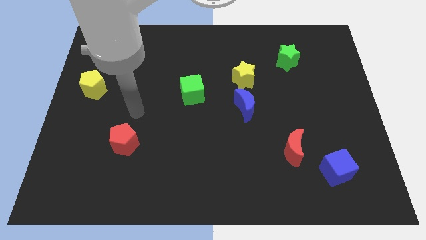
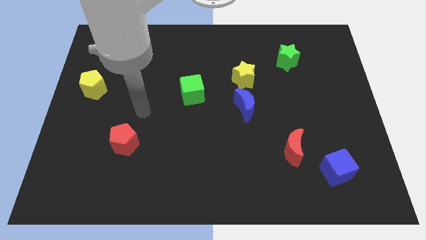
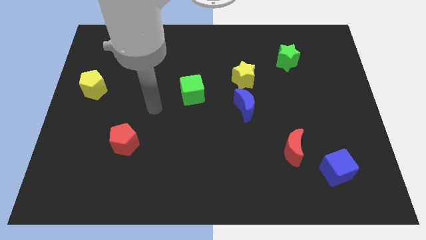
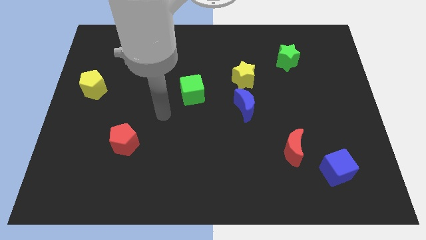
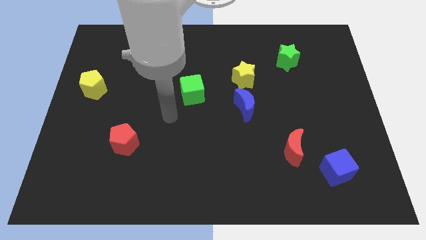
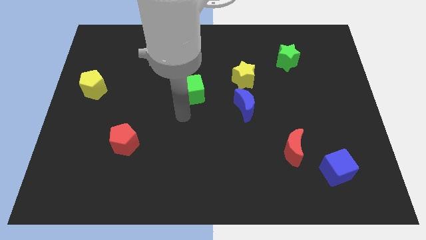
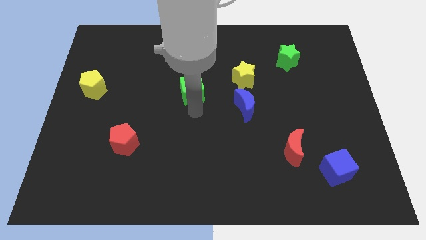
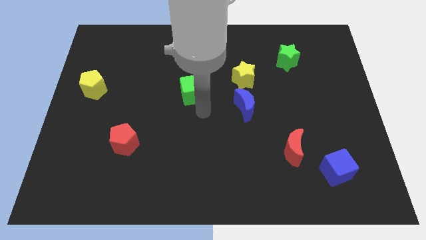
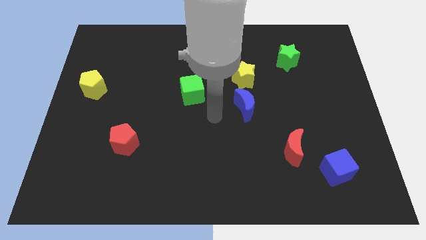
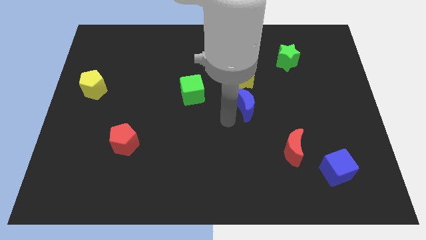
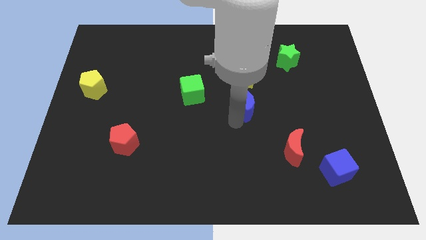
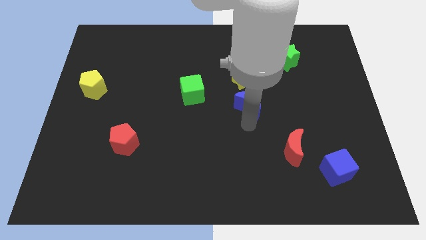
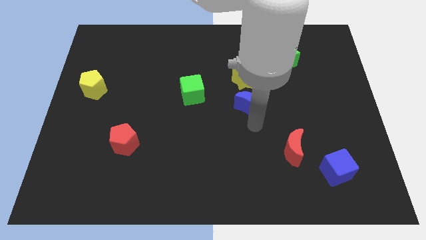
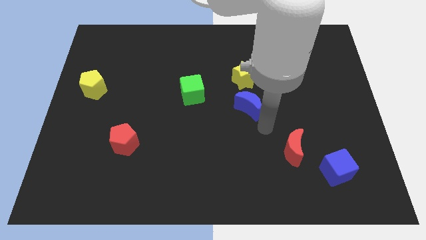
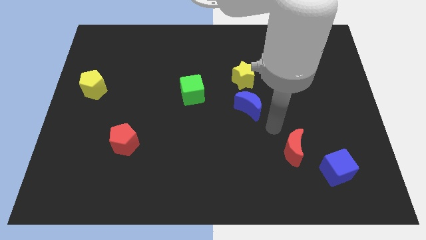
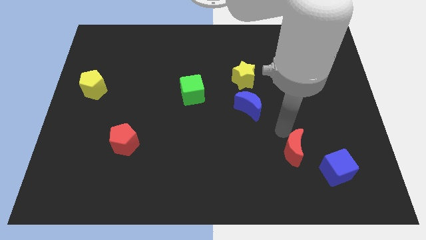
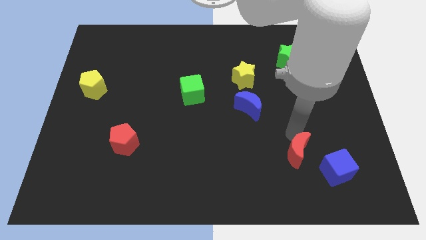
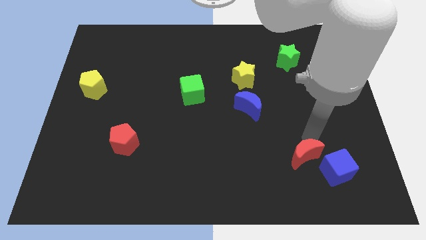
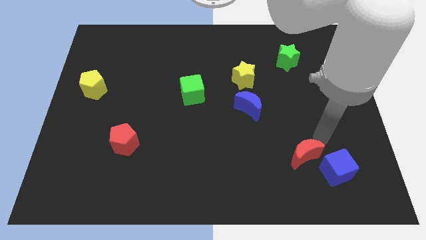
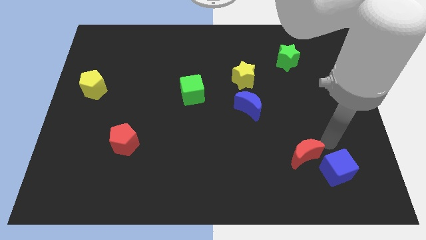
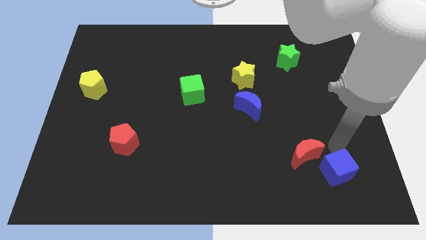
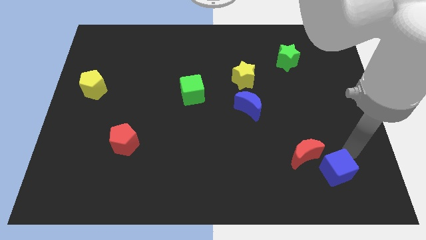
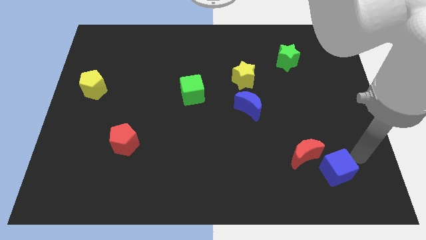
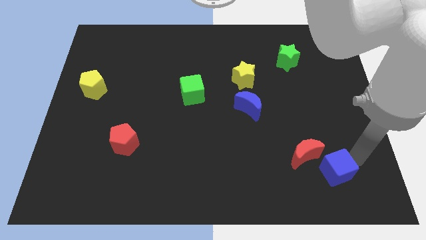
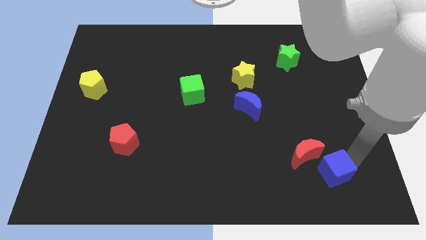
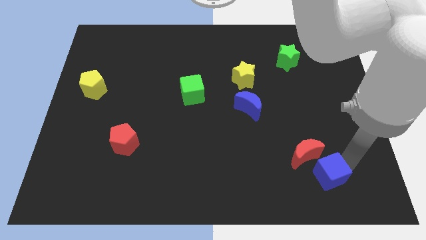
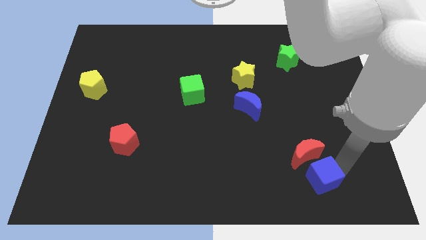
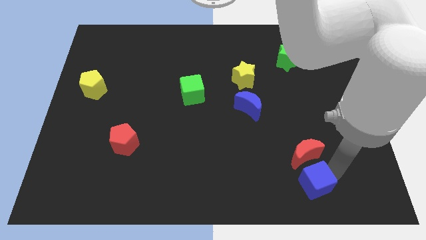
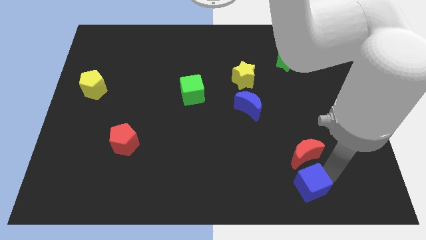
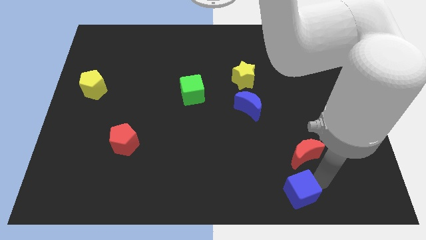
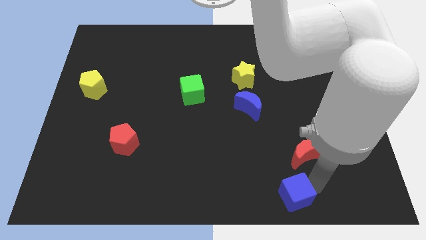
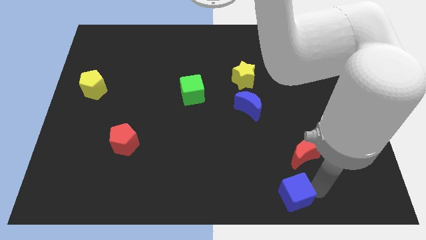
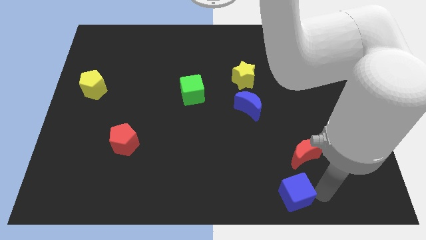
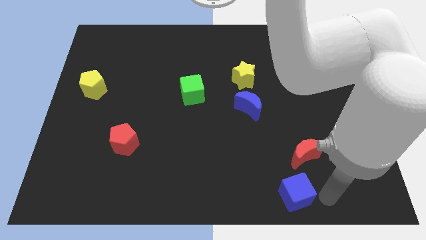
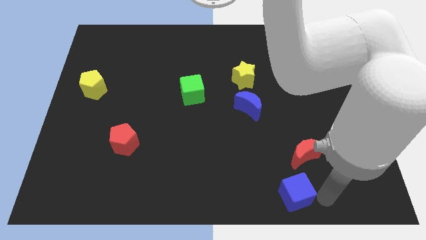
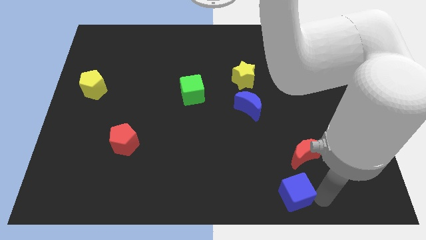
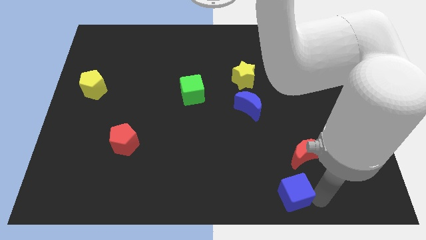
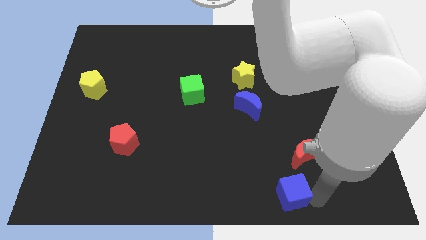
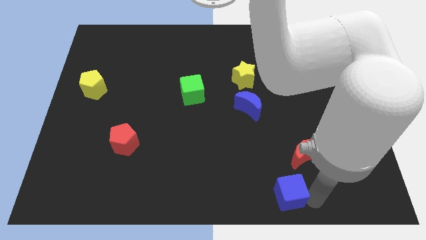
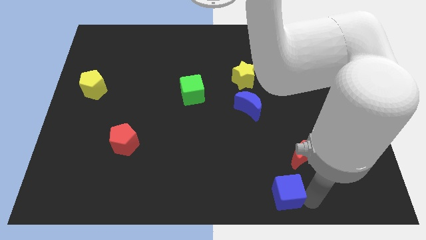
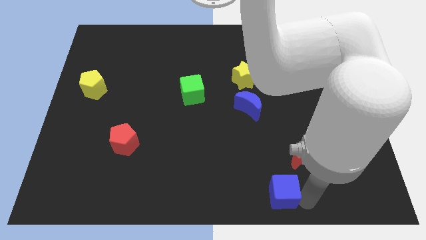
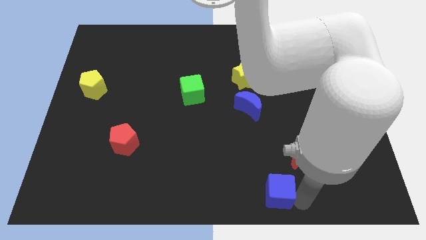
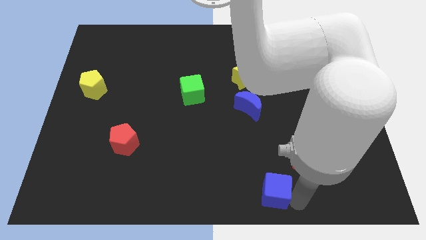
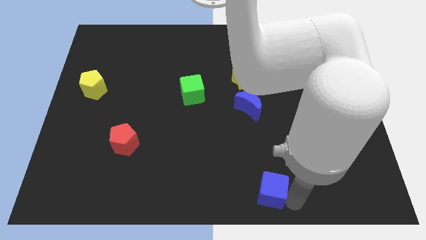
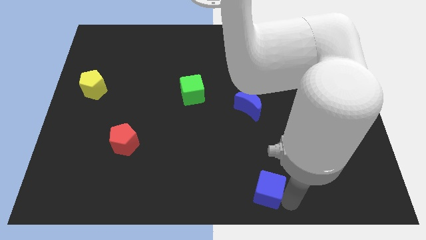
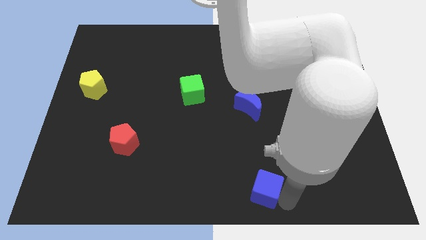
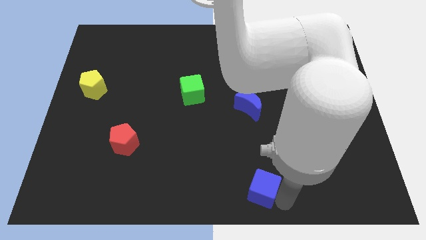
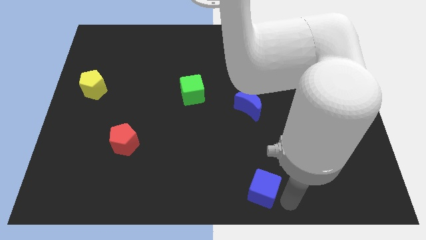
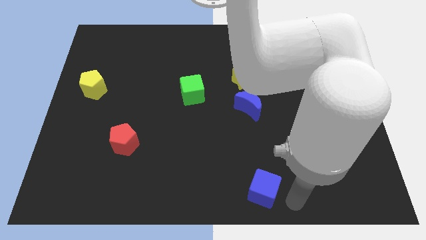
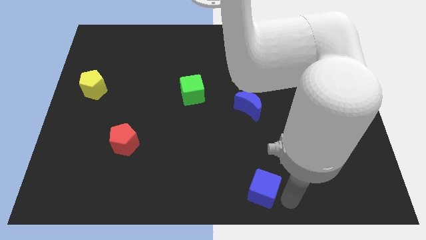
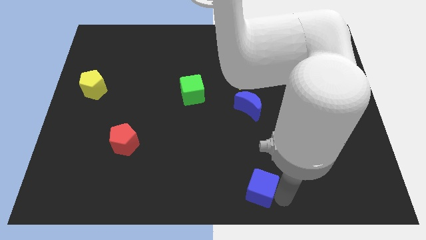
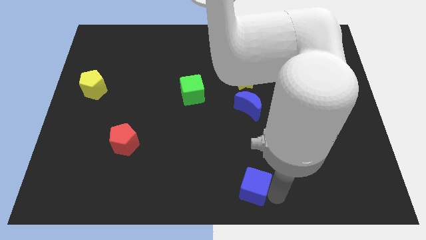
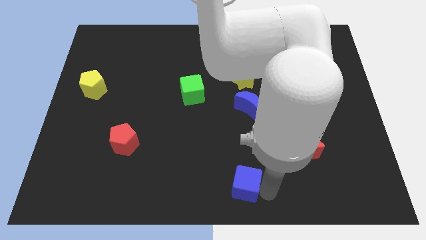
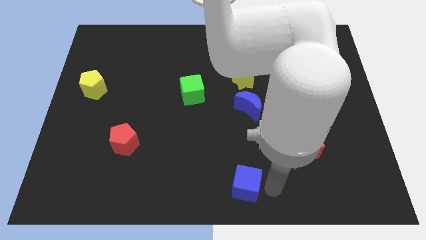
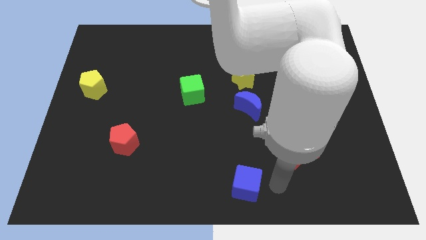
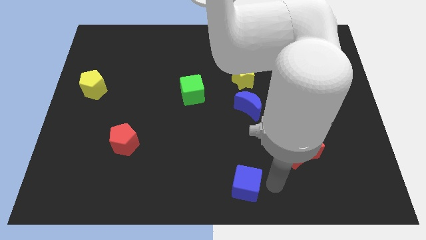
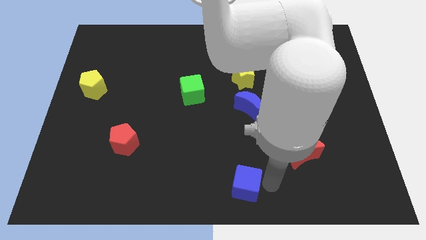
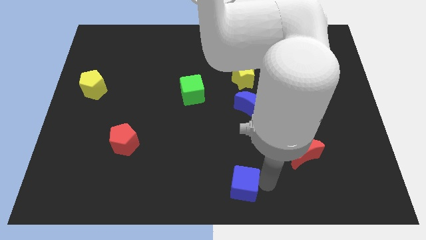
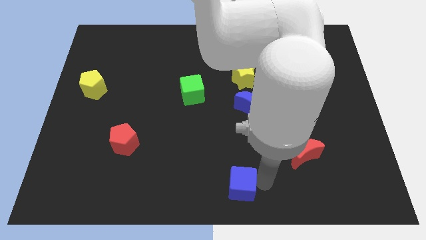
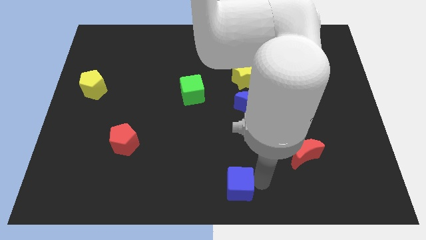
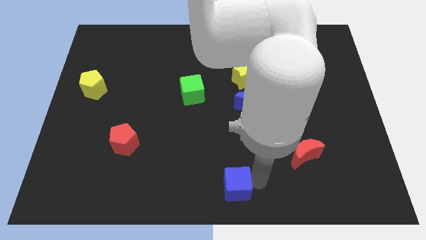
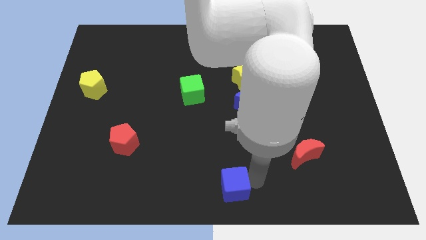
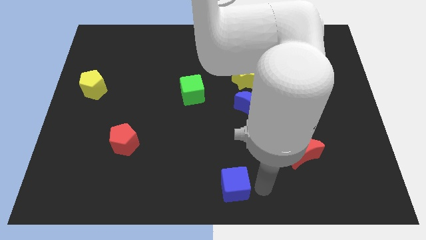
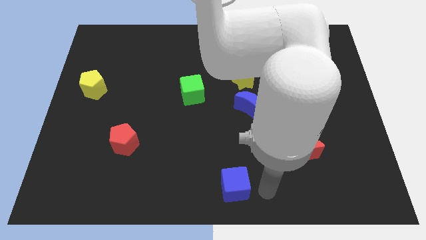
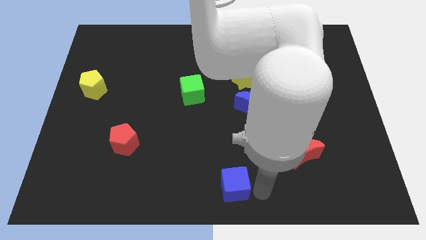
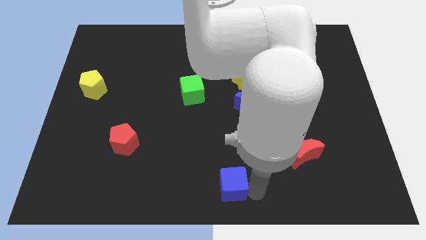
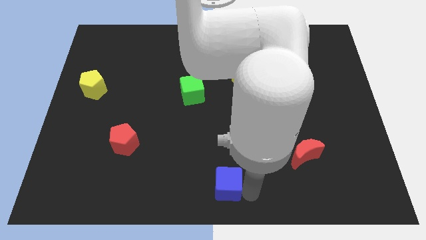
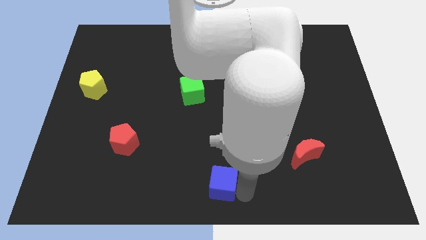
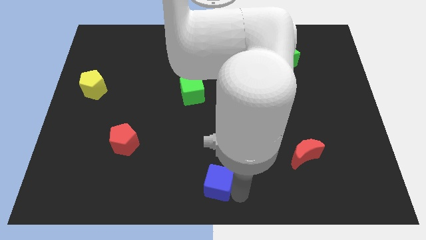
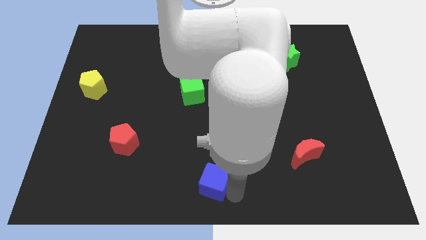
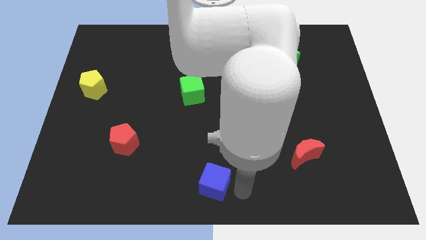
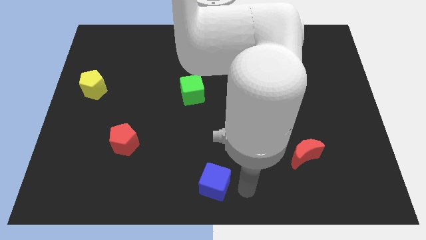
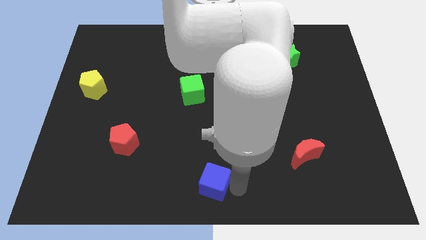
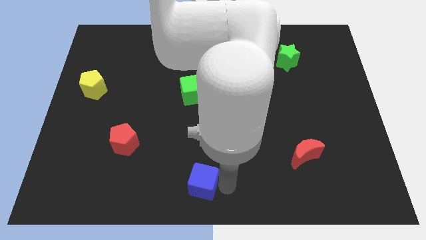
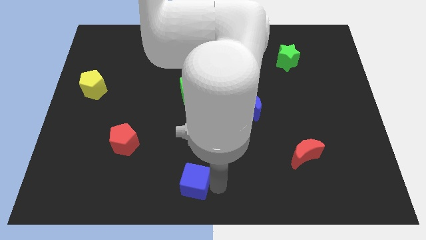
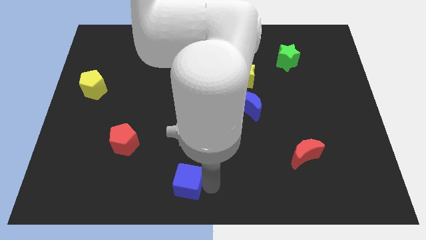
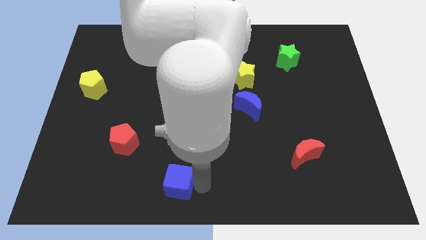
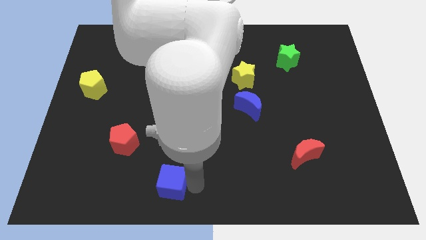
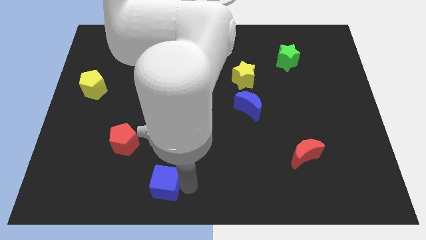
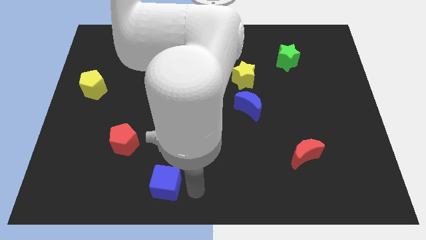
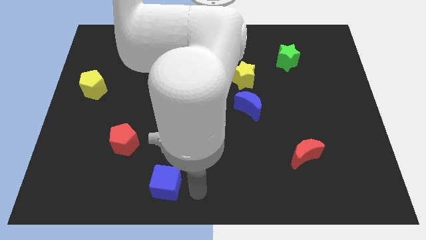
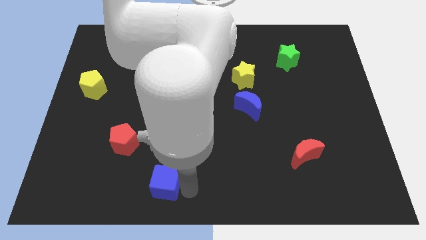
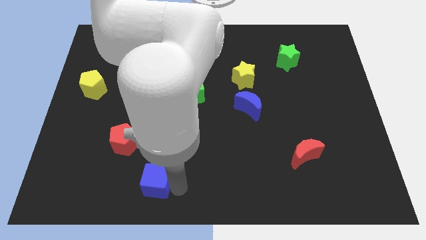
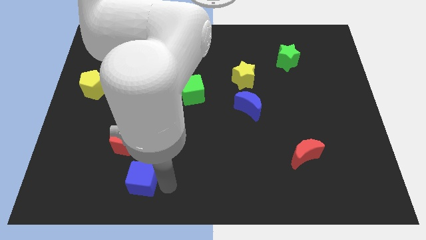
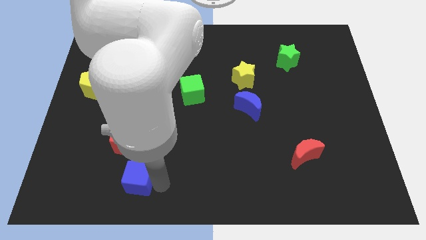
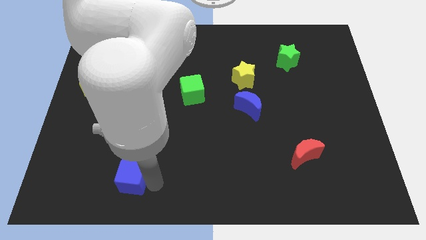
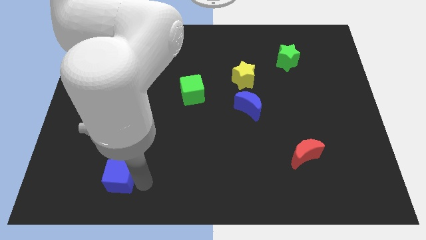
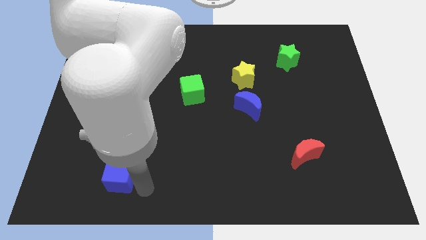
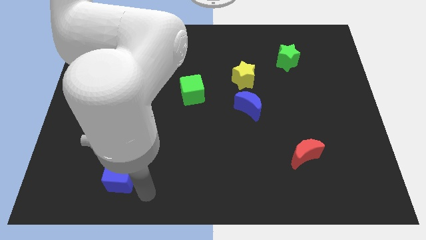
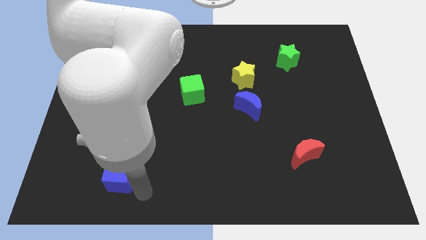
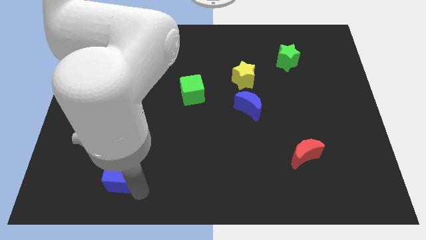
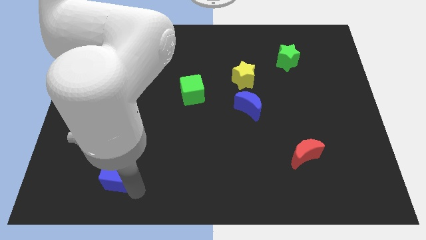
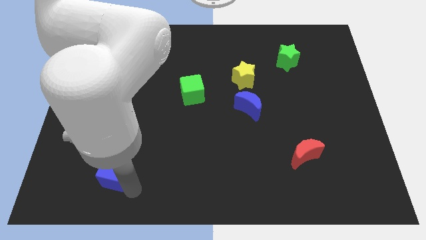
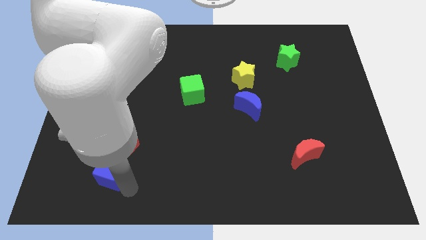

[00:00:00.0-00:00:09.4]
push the blue cube diagonally down and to the left of the red pentagon
